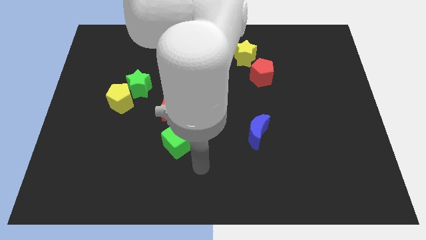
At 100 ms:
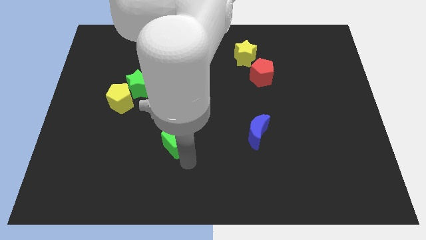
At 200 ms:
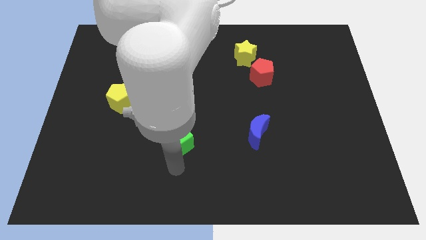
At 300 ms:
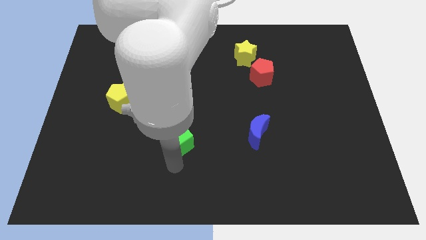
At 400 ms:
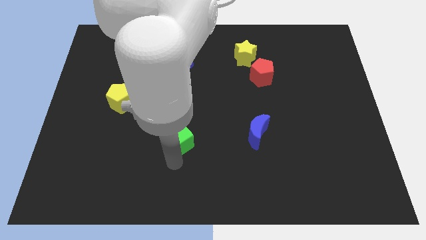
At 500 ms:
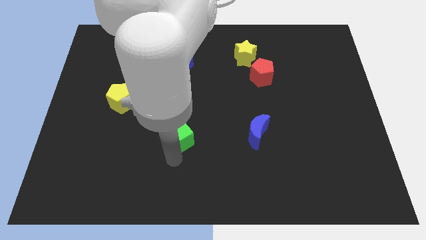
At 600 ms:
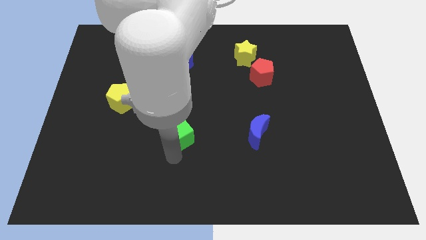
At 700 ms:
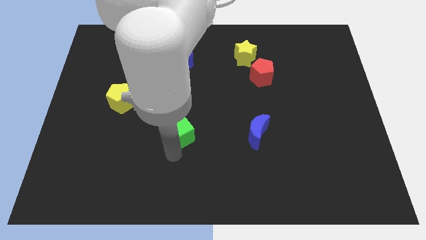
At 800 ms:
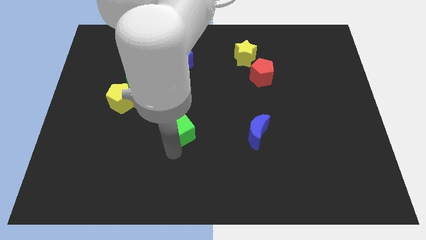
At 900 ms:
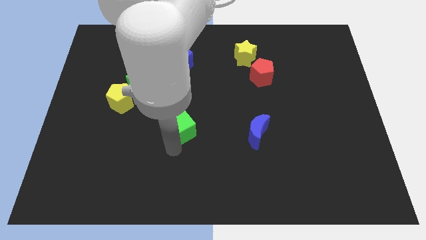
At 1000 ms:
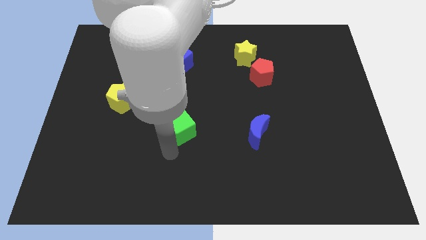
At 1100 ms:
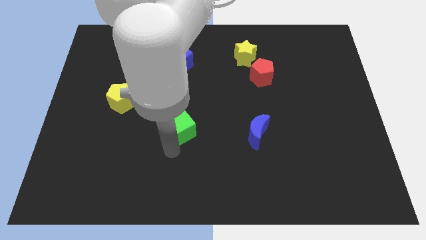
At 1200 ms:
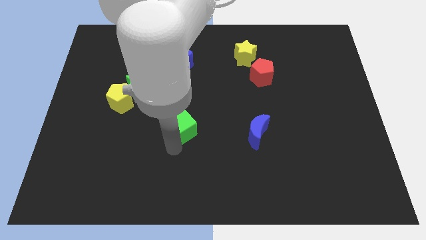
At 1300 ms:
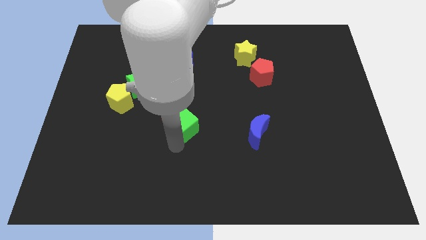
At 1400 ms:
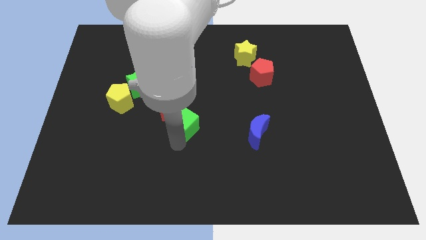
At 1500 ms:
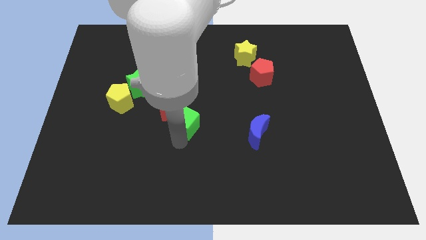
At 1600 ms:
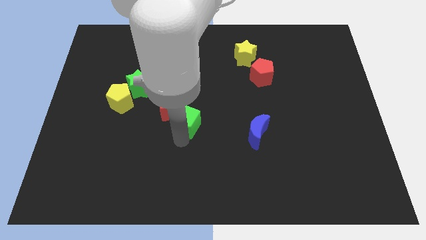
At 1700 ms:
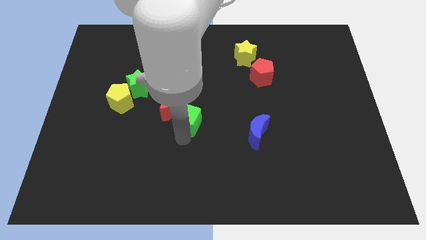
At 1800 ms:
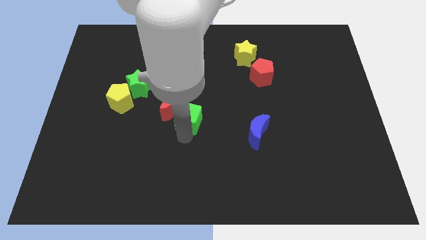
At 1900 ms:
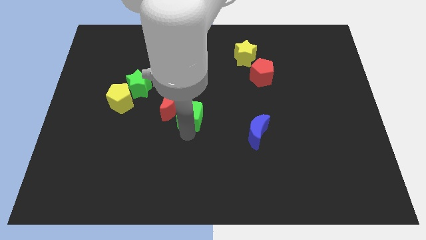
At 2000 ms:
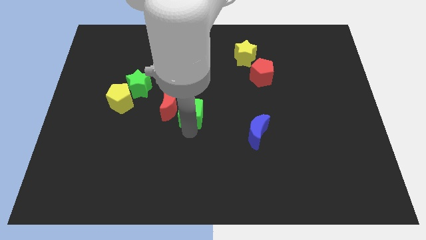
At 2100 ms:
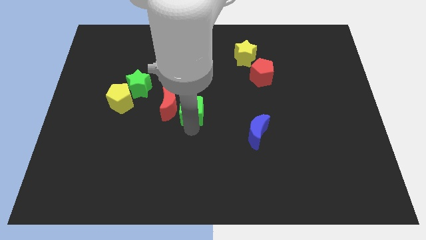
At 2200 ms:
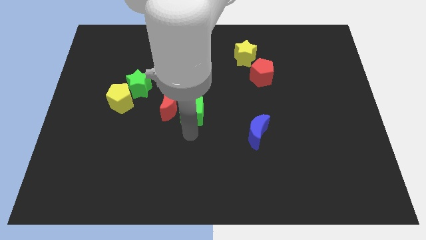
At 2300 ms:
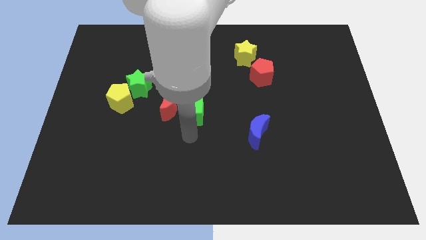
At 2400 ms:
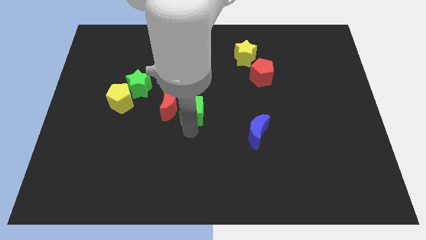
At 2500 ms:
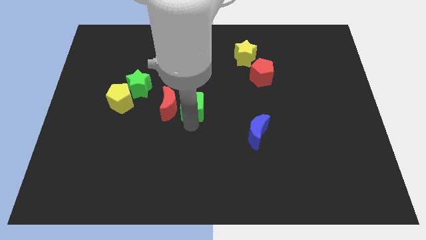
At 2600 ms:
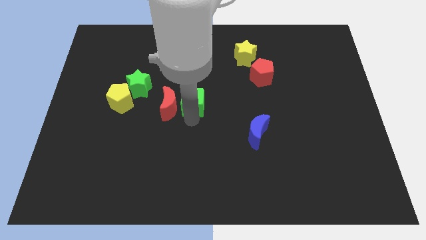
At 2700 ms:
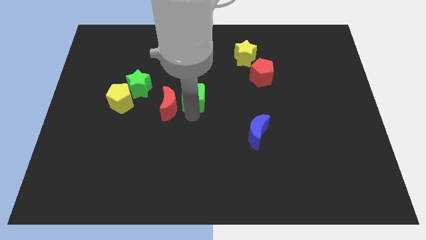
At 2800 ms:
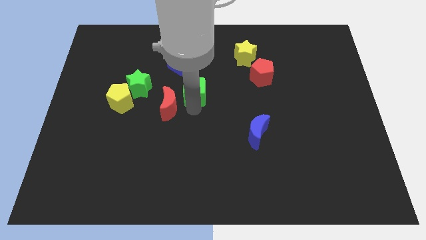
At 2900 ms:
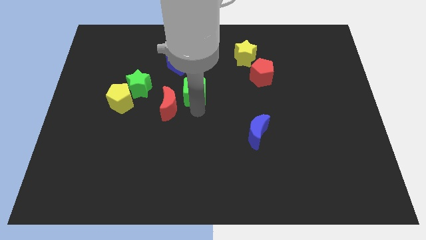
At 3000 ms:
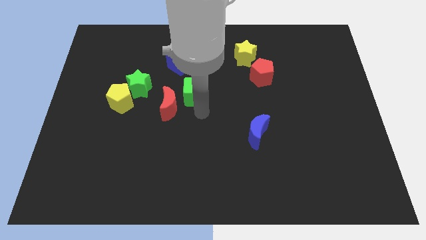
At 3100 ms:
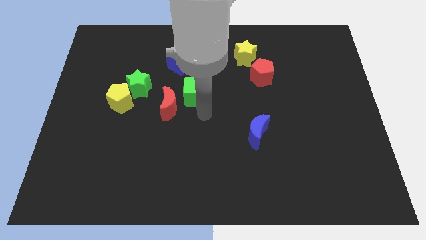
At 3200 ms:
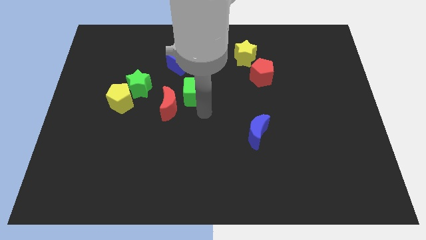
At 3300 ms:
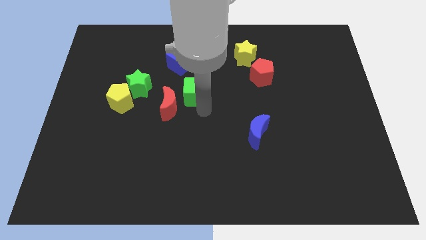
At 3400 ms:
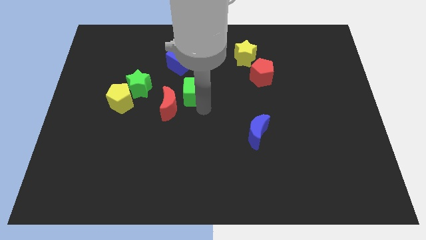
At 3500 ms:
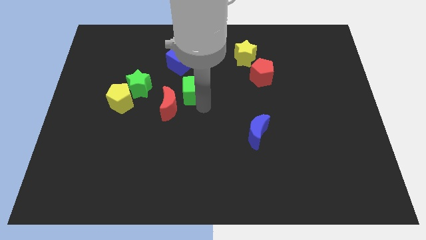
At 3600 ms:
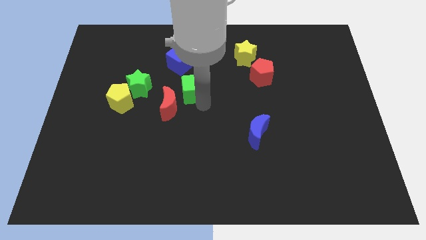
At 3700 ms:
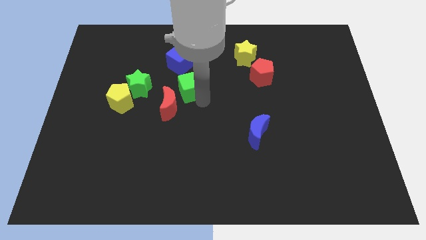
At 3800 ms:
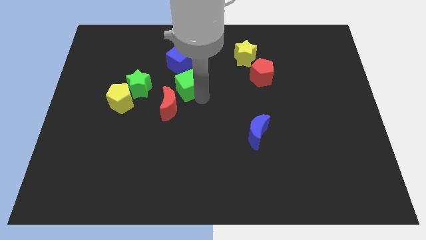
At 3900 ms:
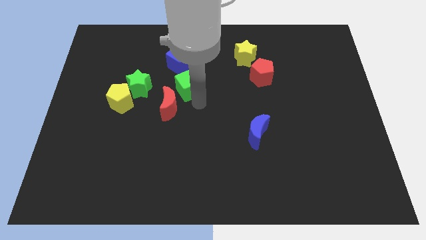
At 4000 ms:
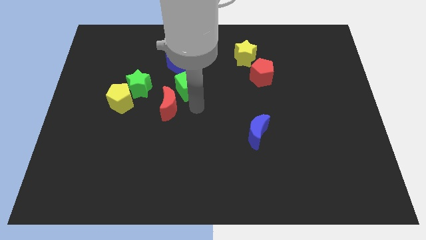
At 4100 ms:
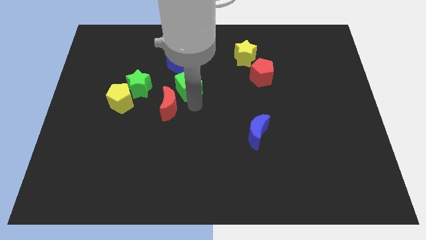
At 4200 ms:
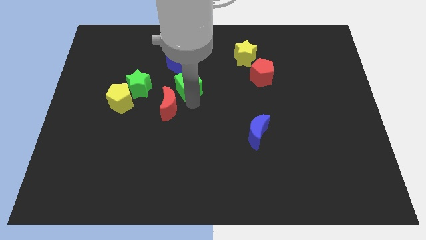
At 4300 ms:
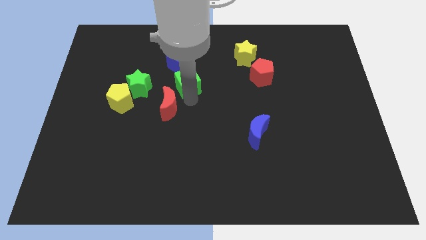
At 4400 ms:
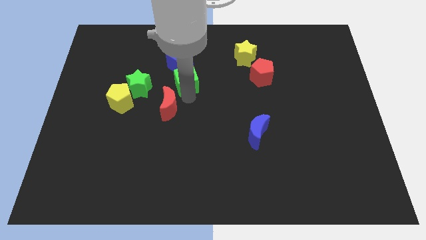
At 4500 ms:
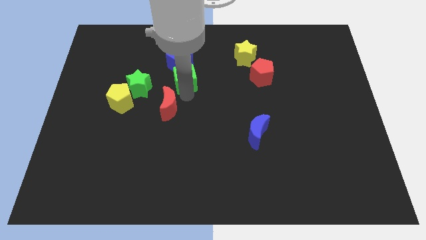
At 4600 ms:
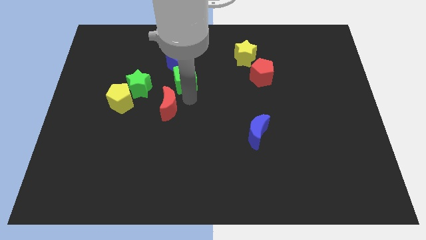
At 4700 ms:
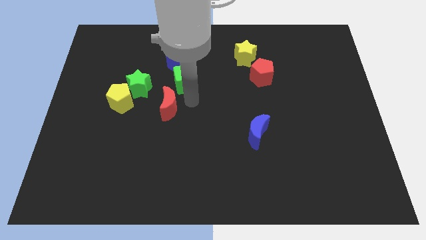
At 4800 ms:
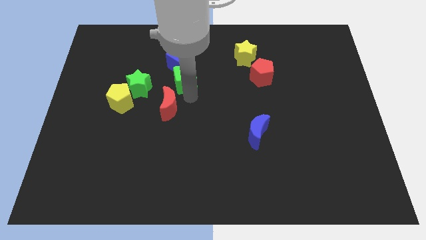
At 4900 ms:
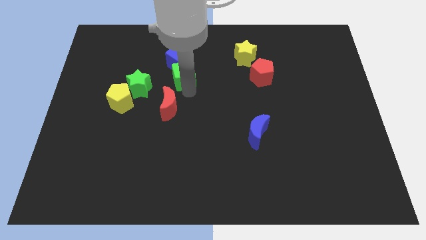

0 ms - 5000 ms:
put the green cube towards the blue cube

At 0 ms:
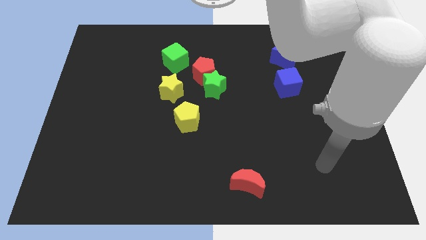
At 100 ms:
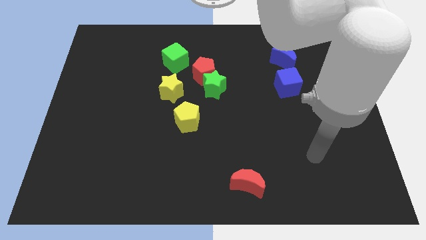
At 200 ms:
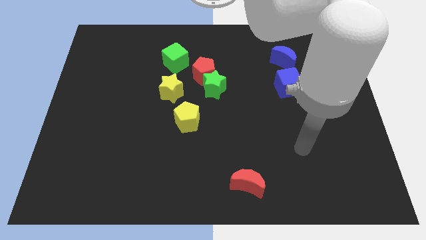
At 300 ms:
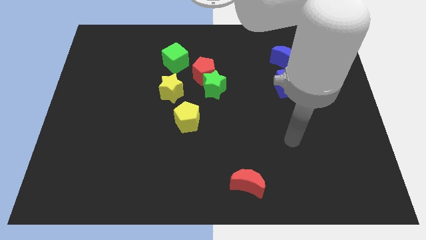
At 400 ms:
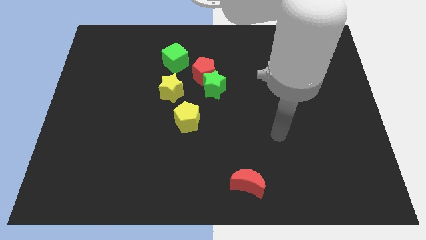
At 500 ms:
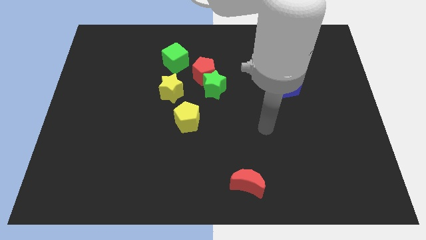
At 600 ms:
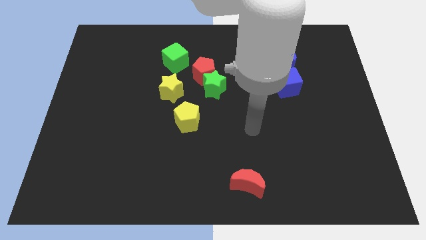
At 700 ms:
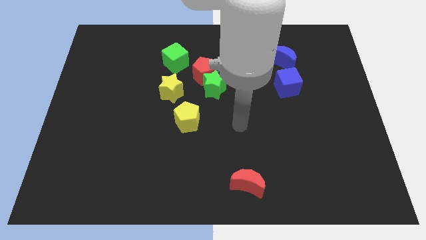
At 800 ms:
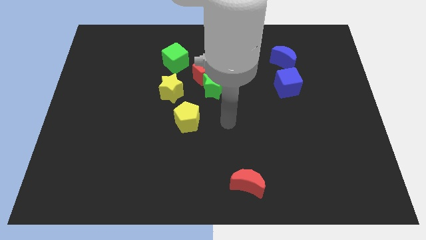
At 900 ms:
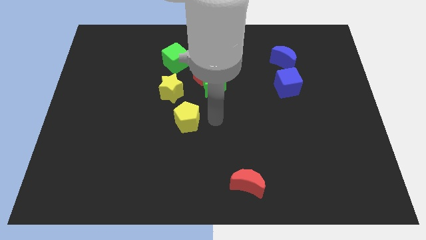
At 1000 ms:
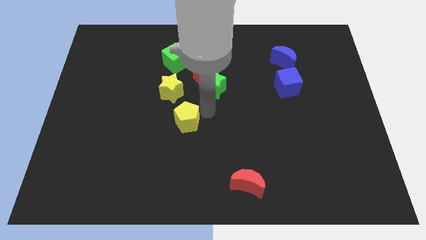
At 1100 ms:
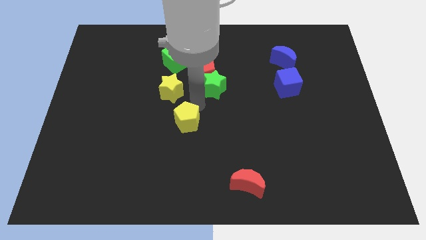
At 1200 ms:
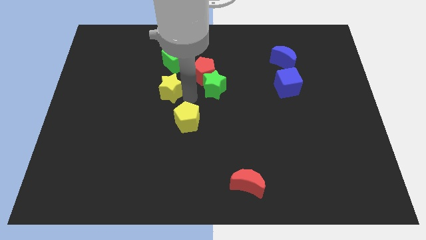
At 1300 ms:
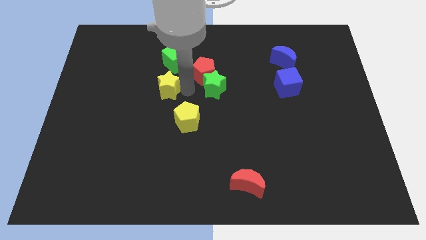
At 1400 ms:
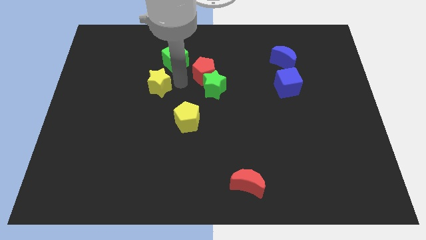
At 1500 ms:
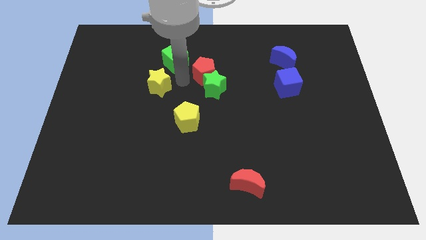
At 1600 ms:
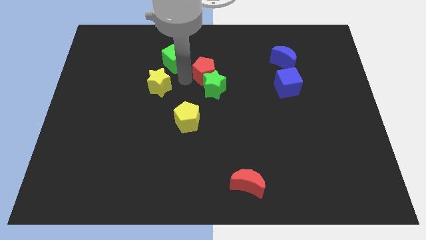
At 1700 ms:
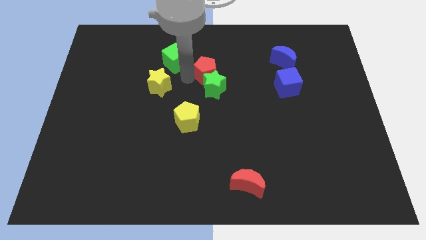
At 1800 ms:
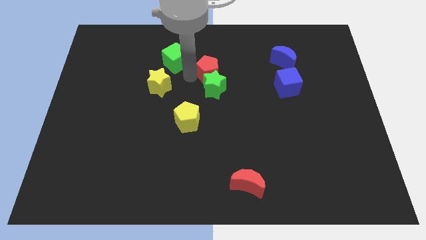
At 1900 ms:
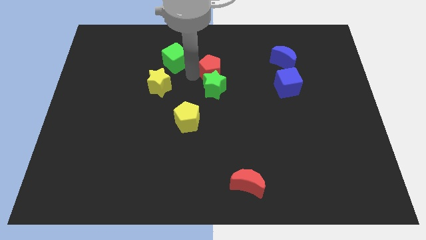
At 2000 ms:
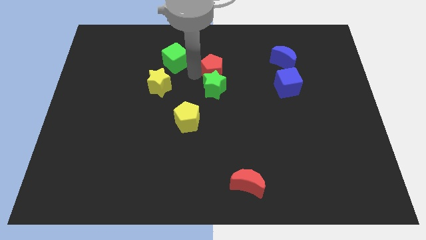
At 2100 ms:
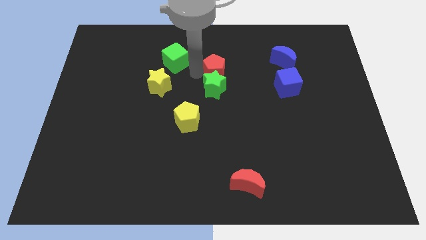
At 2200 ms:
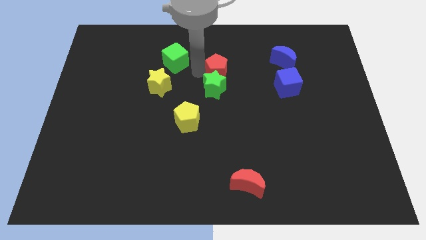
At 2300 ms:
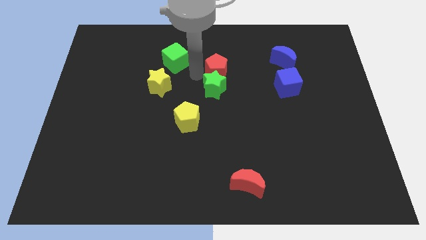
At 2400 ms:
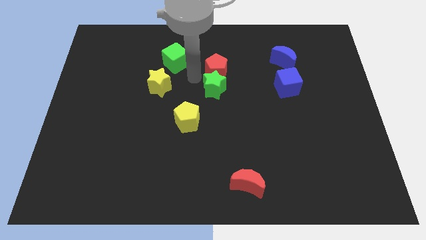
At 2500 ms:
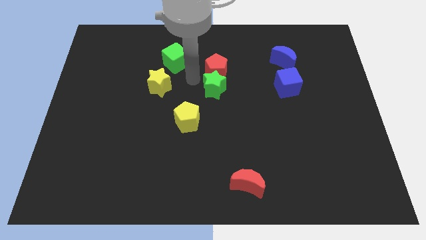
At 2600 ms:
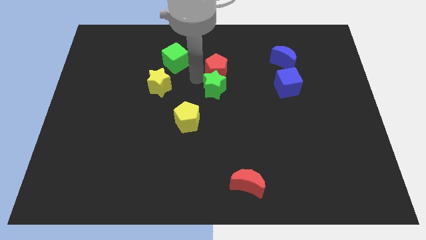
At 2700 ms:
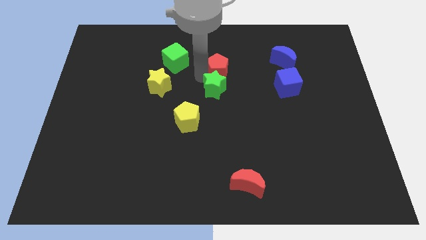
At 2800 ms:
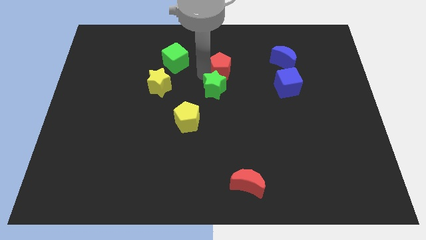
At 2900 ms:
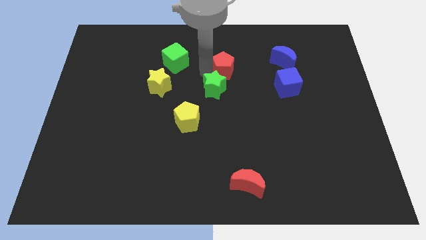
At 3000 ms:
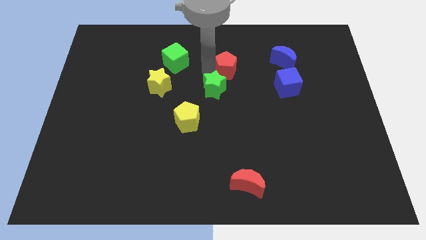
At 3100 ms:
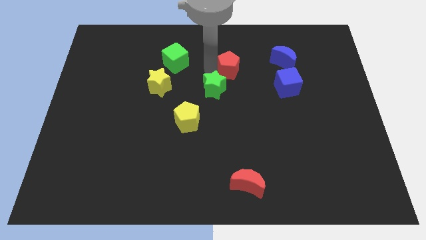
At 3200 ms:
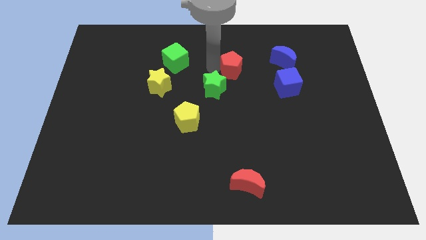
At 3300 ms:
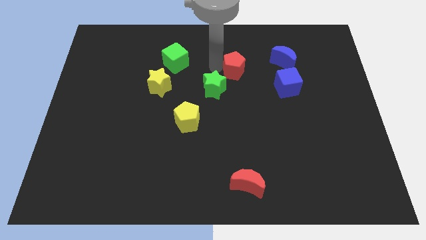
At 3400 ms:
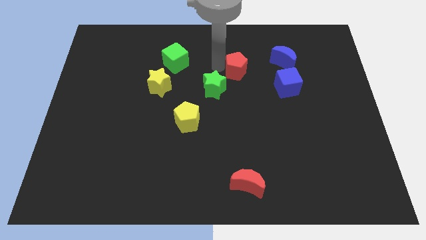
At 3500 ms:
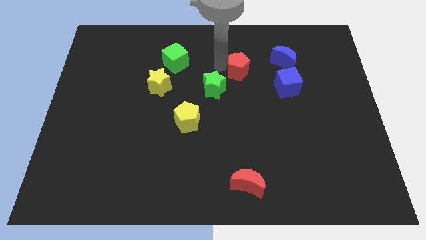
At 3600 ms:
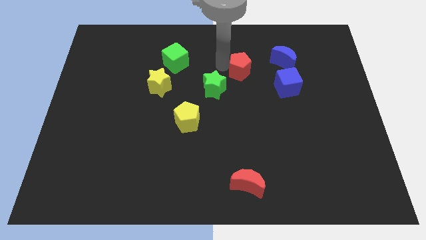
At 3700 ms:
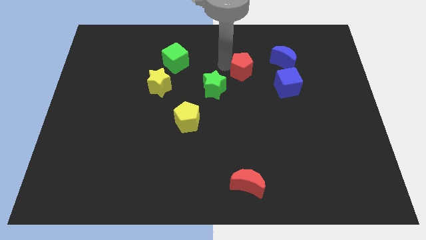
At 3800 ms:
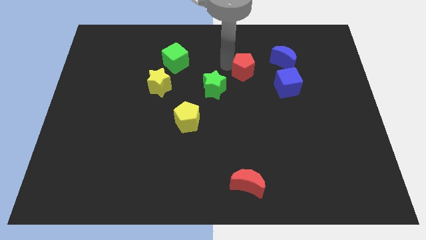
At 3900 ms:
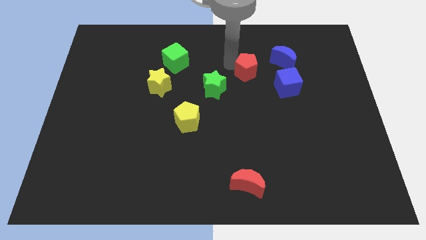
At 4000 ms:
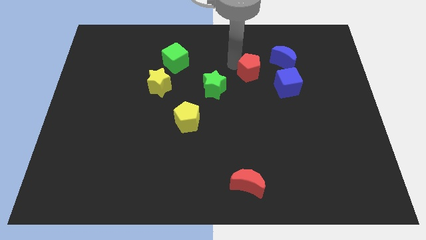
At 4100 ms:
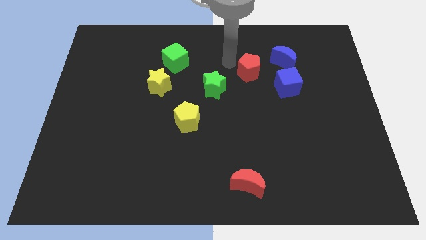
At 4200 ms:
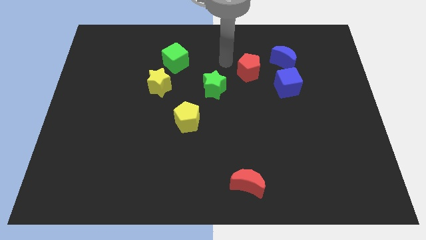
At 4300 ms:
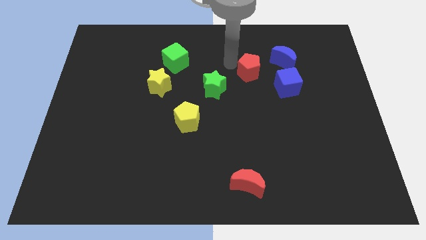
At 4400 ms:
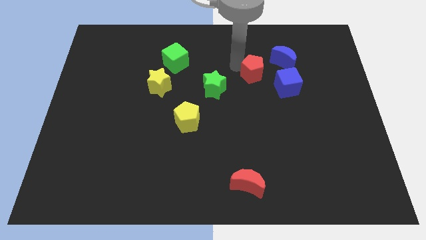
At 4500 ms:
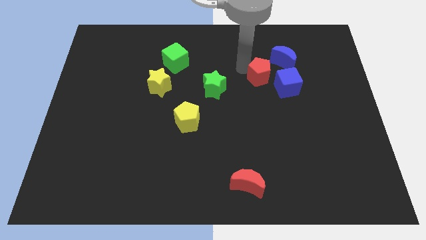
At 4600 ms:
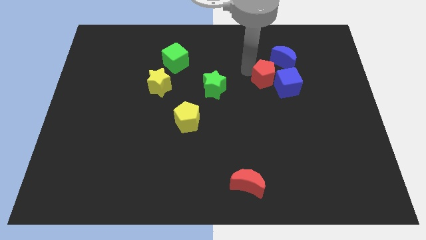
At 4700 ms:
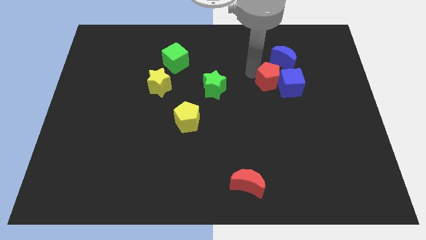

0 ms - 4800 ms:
move the red pentagon towards the blue cube
